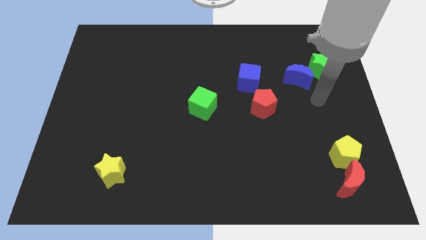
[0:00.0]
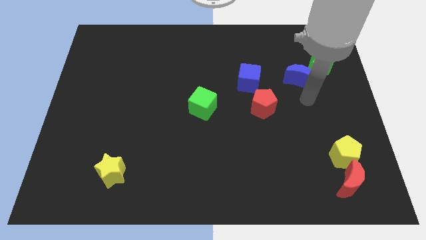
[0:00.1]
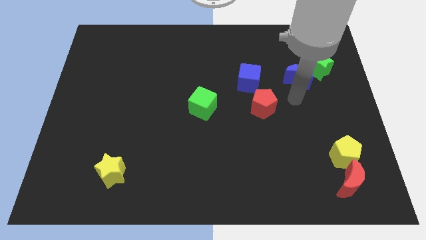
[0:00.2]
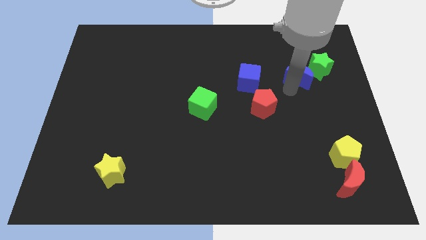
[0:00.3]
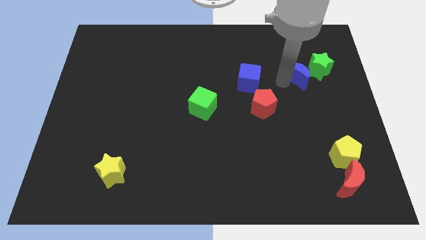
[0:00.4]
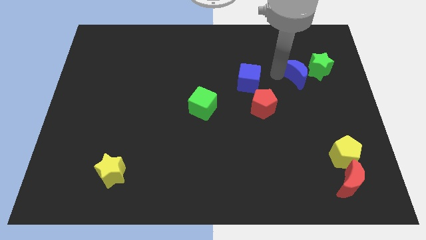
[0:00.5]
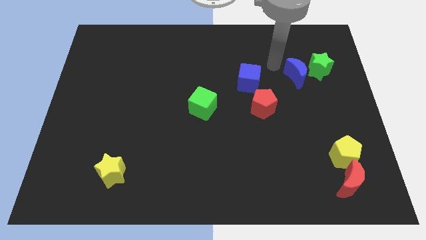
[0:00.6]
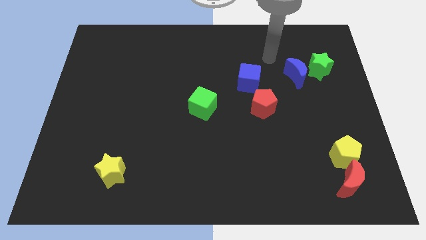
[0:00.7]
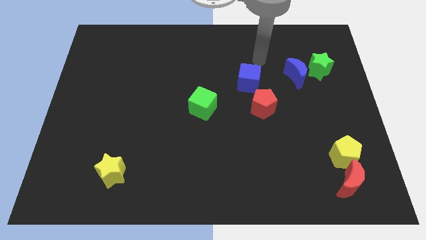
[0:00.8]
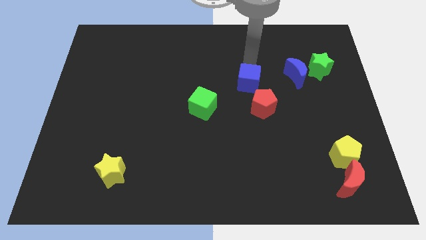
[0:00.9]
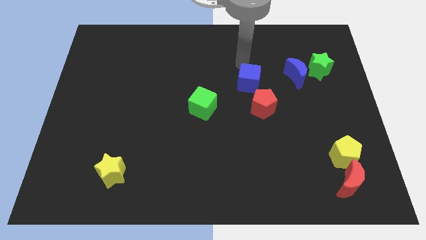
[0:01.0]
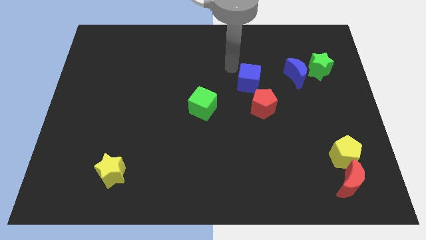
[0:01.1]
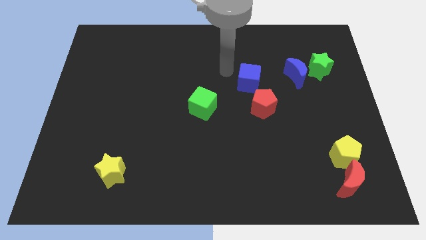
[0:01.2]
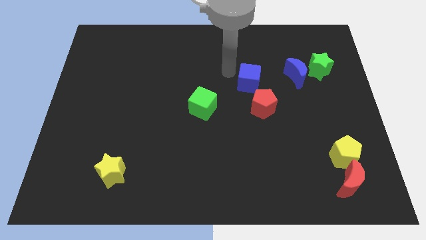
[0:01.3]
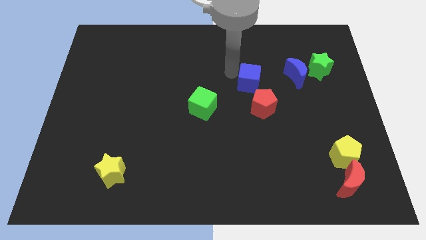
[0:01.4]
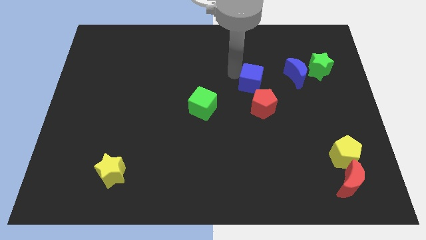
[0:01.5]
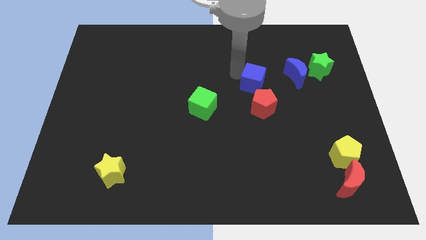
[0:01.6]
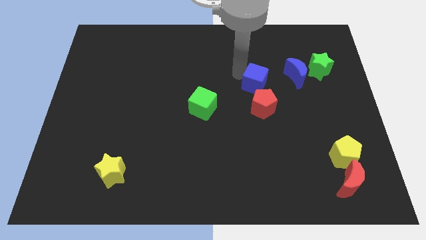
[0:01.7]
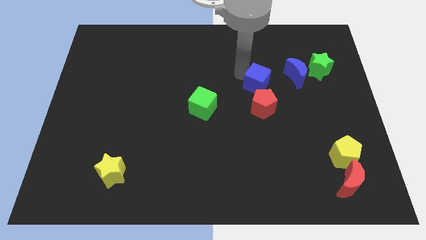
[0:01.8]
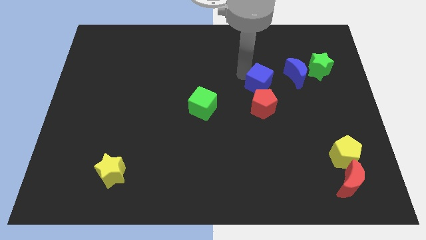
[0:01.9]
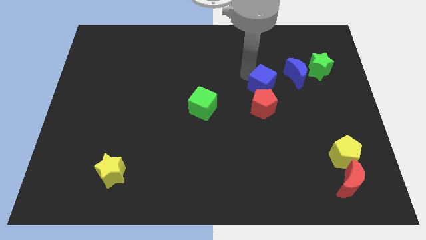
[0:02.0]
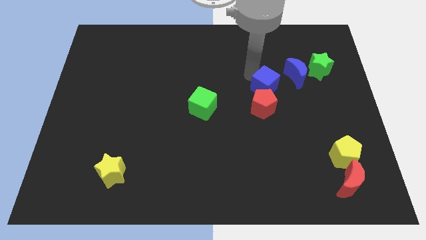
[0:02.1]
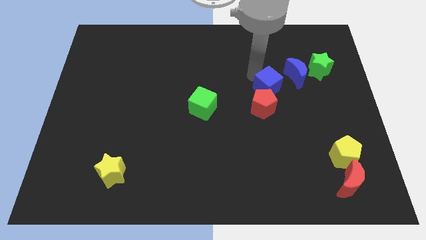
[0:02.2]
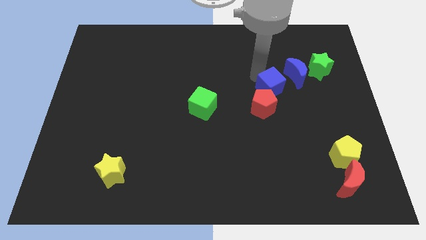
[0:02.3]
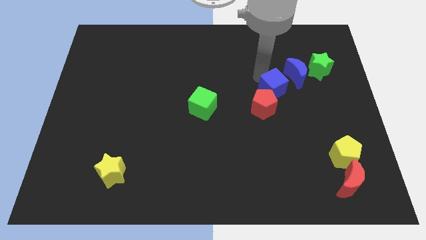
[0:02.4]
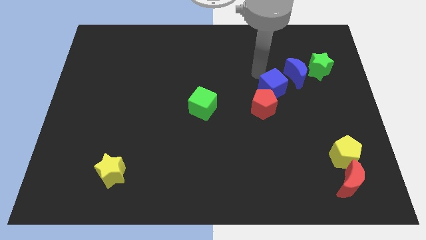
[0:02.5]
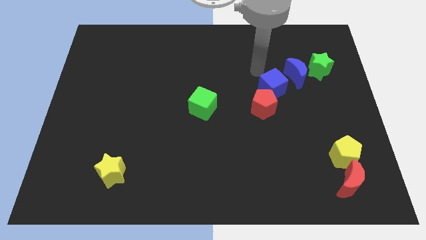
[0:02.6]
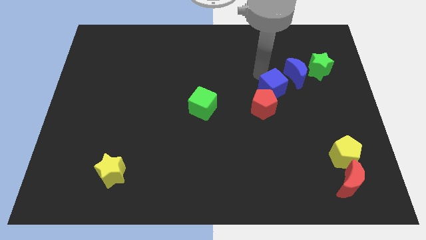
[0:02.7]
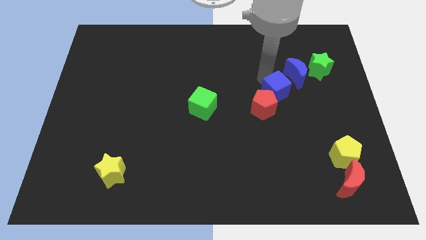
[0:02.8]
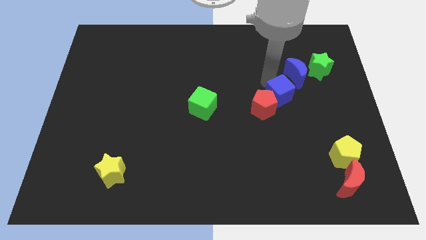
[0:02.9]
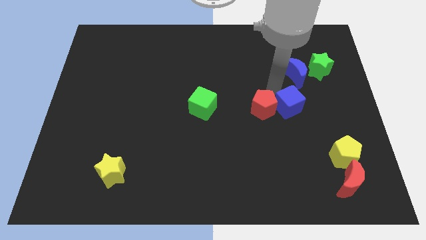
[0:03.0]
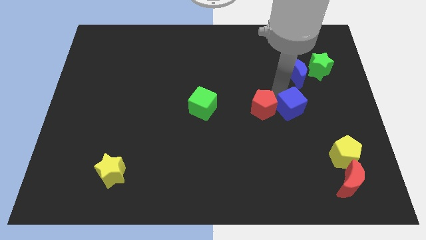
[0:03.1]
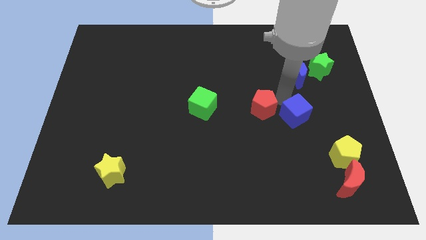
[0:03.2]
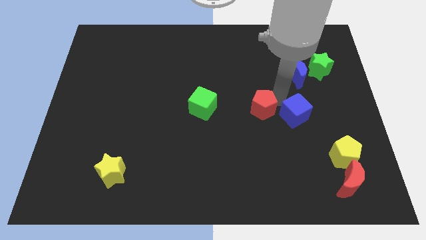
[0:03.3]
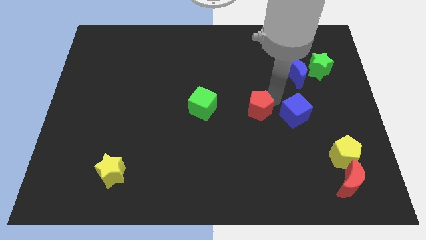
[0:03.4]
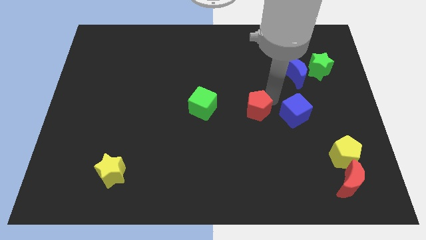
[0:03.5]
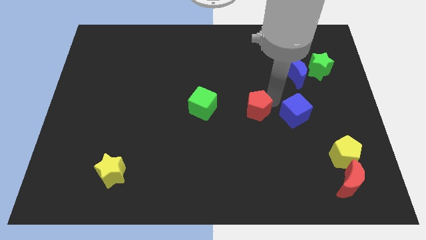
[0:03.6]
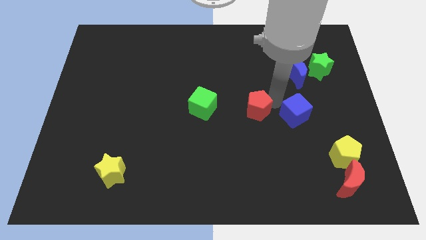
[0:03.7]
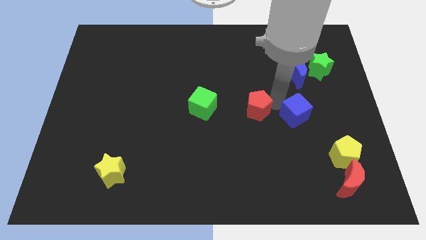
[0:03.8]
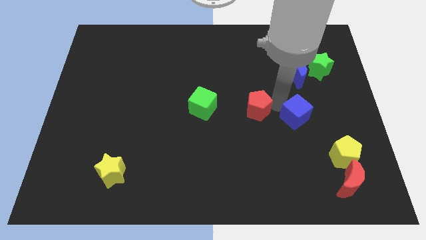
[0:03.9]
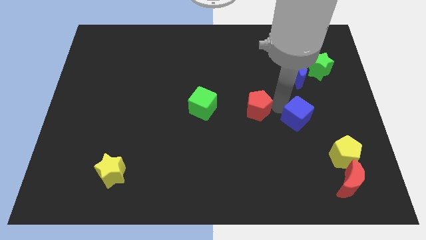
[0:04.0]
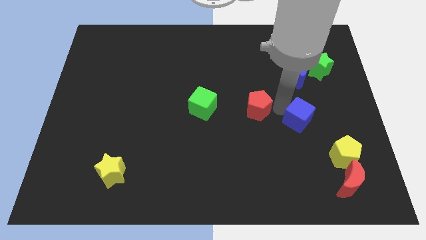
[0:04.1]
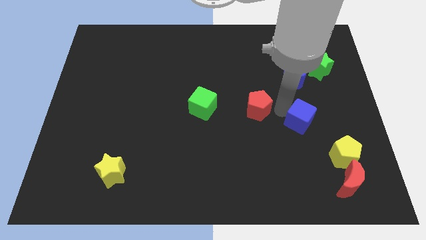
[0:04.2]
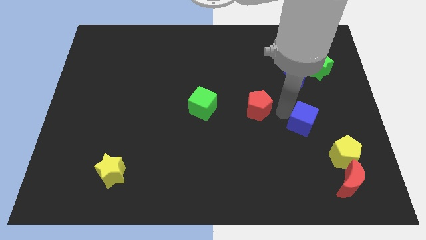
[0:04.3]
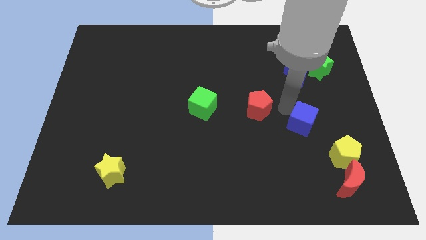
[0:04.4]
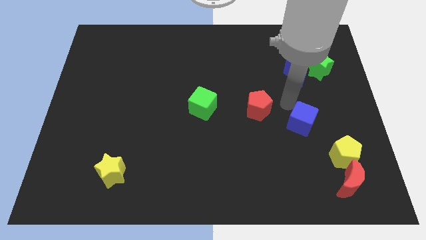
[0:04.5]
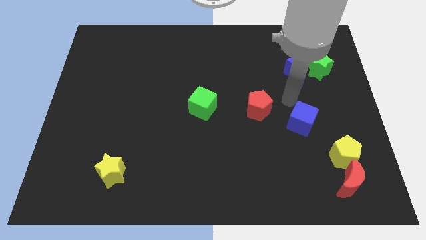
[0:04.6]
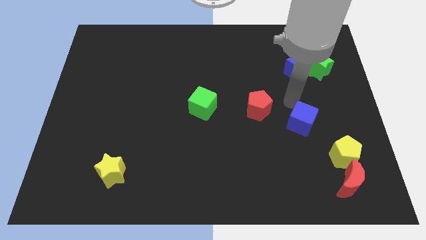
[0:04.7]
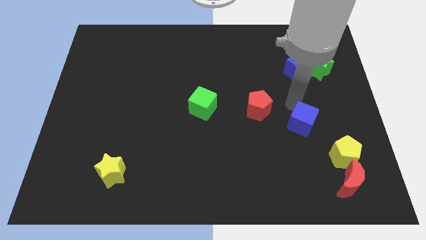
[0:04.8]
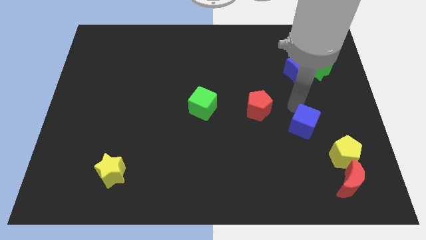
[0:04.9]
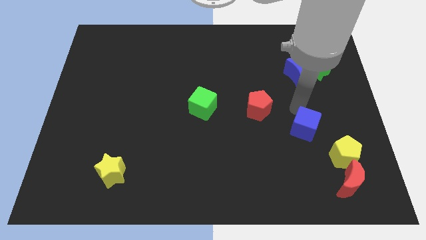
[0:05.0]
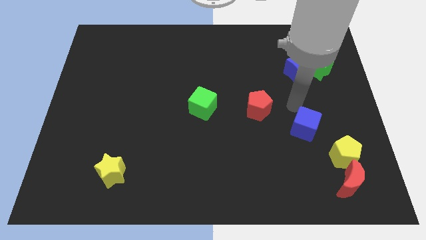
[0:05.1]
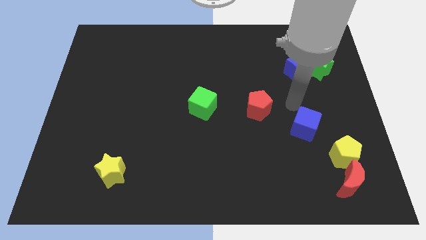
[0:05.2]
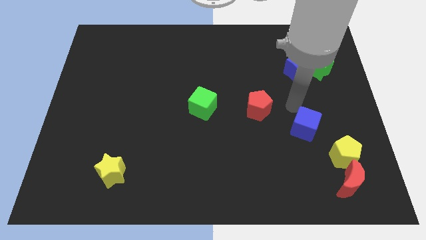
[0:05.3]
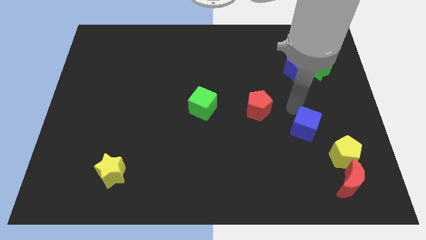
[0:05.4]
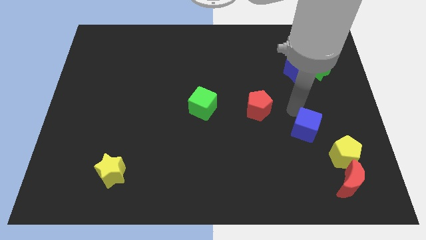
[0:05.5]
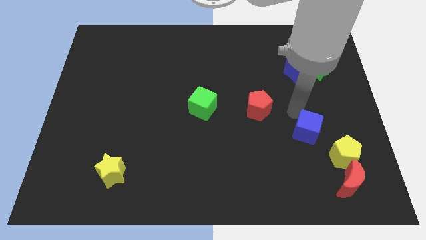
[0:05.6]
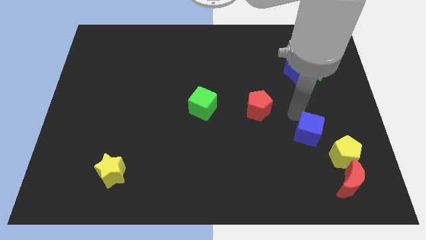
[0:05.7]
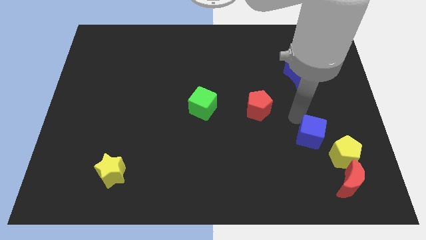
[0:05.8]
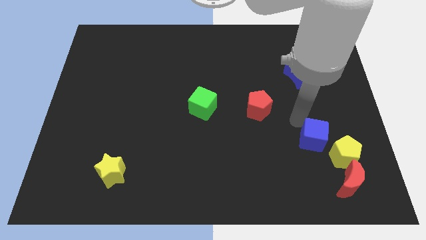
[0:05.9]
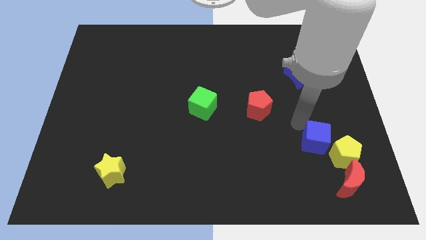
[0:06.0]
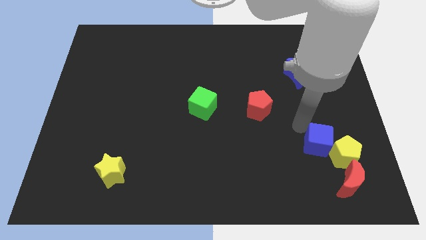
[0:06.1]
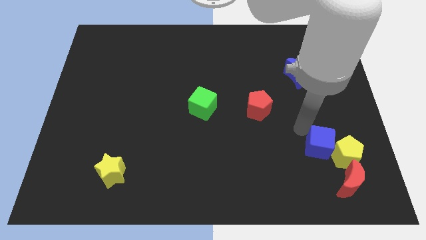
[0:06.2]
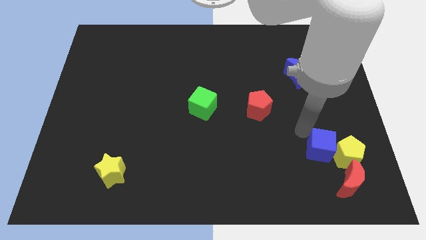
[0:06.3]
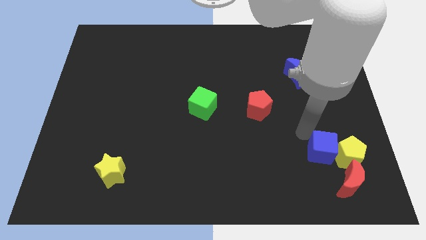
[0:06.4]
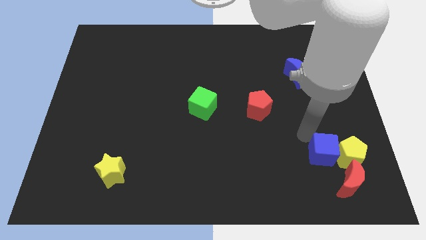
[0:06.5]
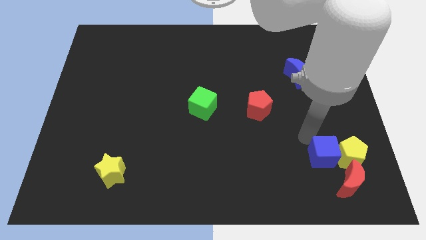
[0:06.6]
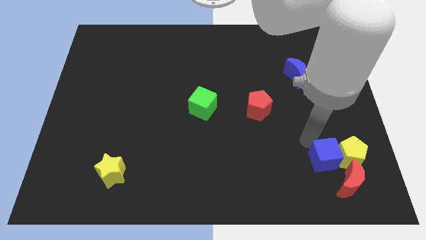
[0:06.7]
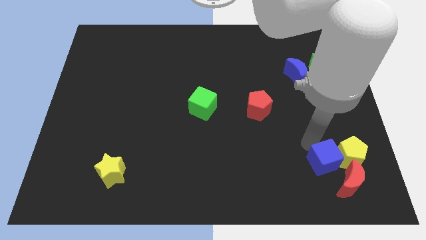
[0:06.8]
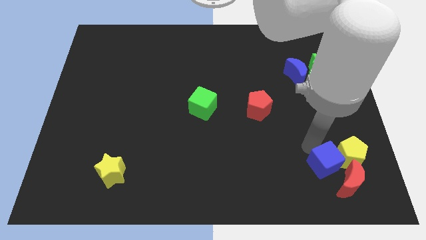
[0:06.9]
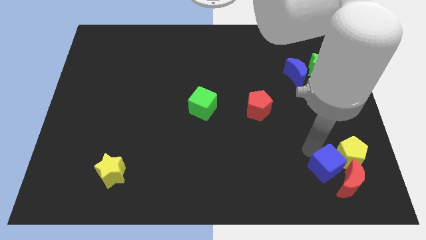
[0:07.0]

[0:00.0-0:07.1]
move the blue cube towards the red moon

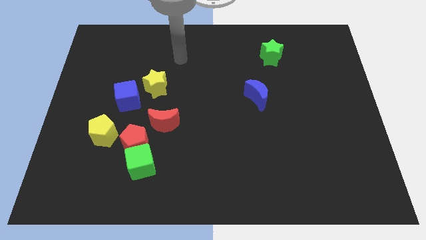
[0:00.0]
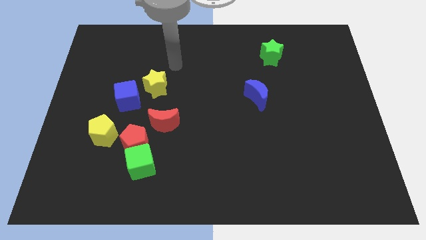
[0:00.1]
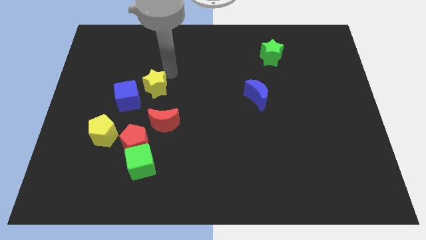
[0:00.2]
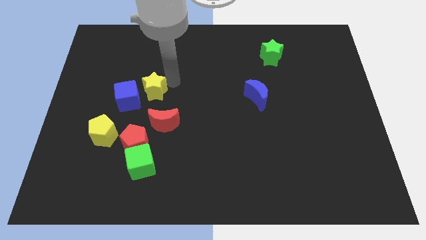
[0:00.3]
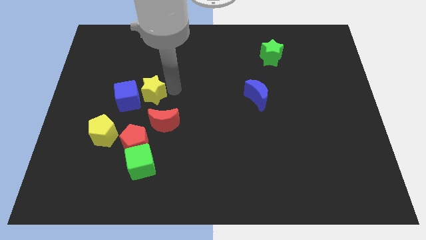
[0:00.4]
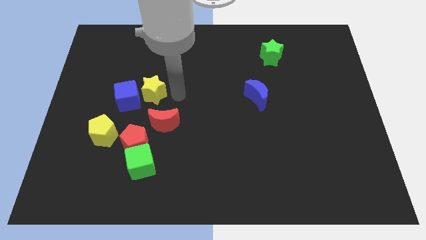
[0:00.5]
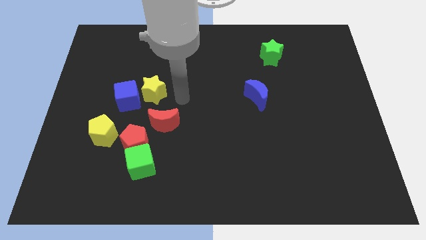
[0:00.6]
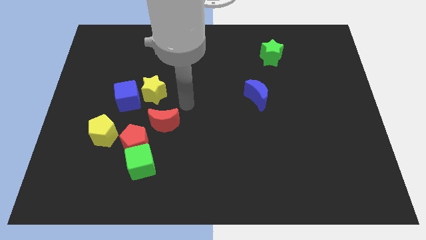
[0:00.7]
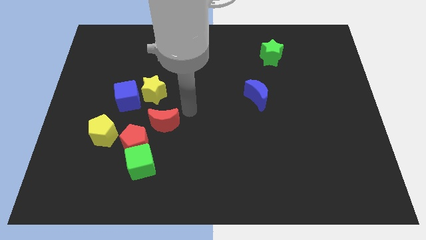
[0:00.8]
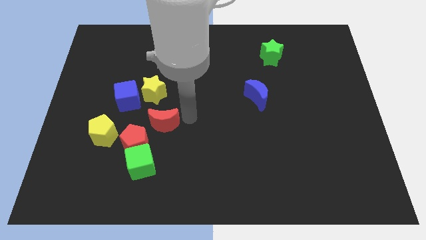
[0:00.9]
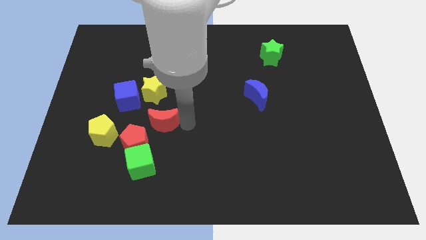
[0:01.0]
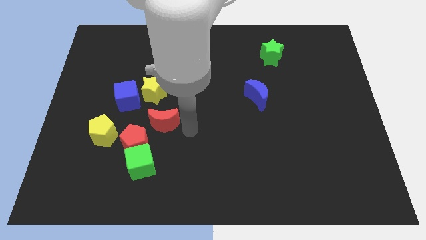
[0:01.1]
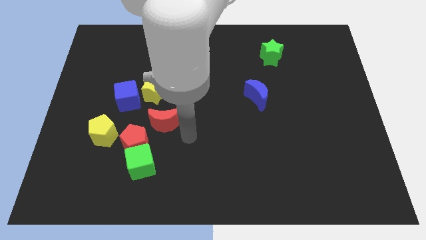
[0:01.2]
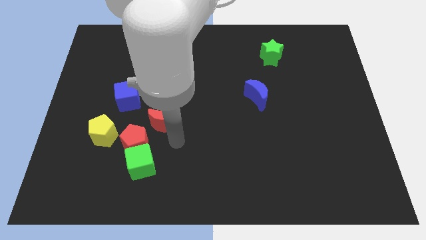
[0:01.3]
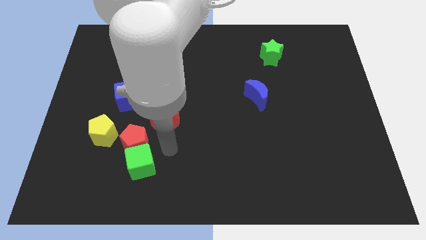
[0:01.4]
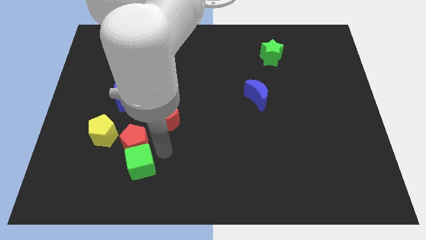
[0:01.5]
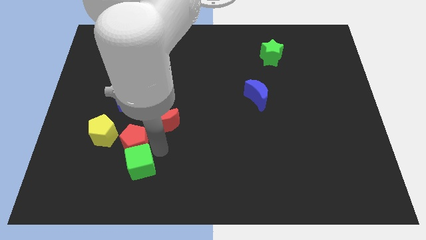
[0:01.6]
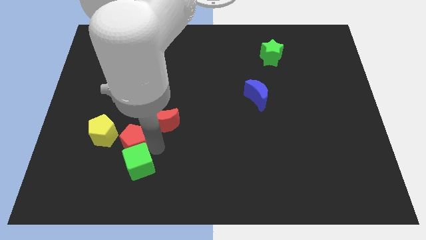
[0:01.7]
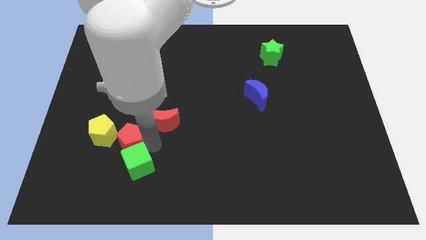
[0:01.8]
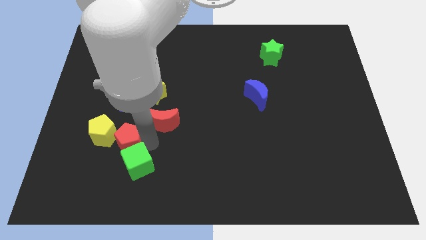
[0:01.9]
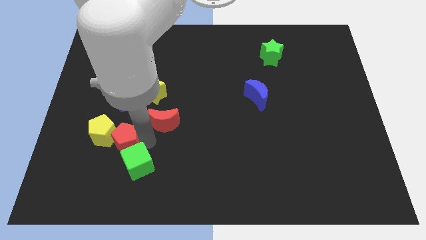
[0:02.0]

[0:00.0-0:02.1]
move the red pentagon close to the yellow pentagon
